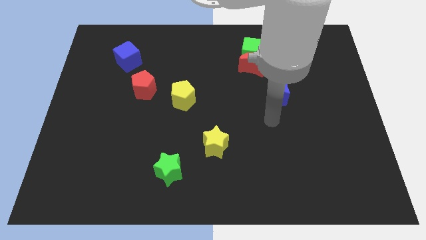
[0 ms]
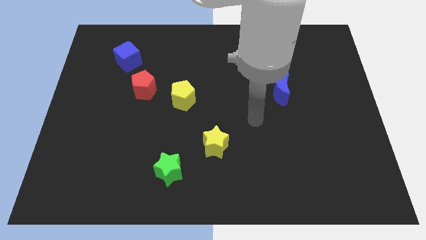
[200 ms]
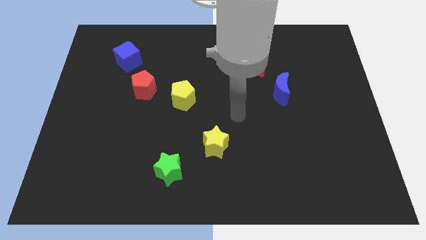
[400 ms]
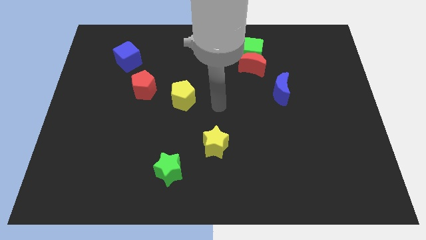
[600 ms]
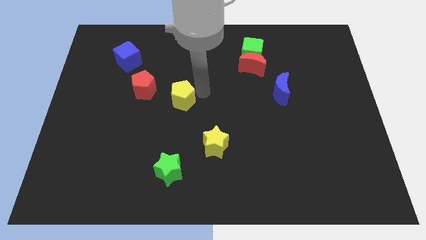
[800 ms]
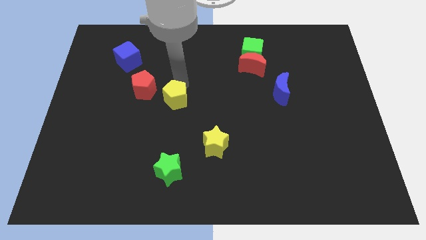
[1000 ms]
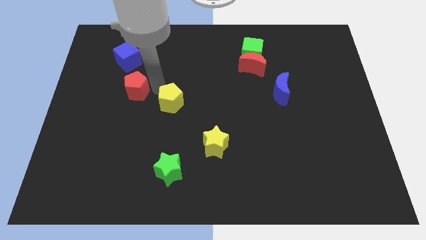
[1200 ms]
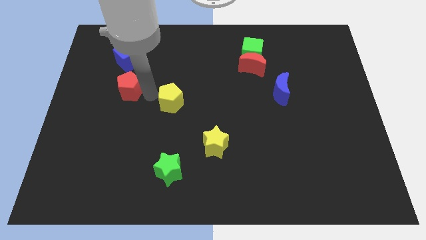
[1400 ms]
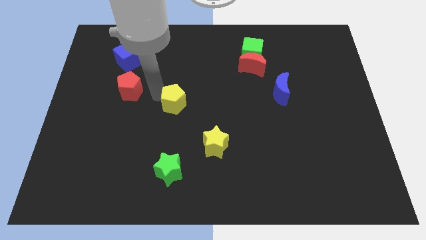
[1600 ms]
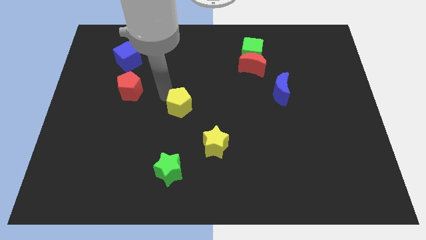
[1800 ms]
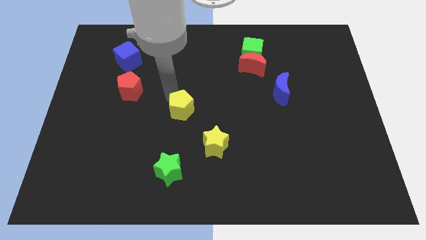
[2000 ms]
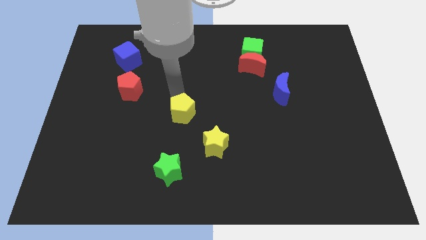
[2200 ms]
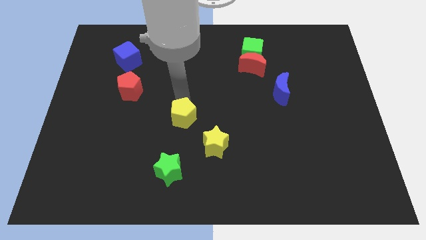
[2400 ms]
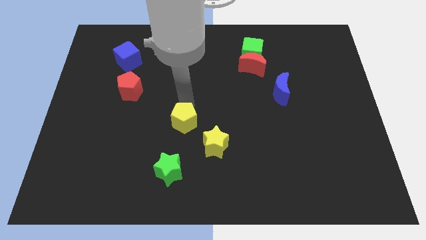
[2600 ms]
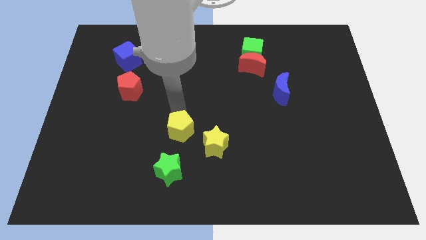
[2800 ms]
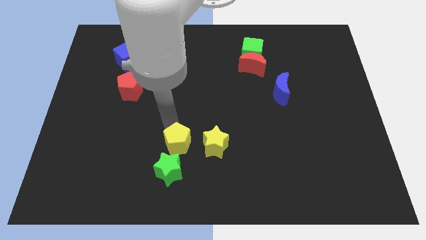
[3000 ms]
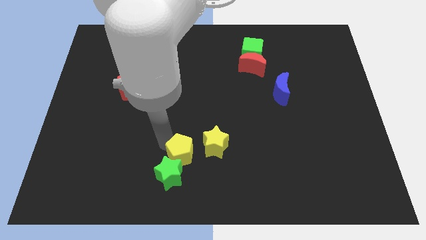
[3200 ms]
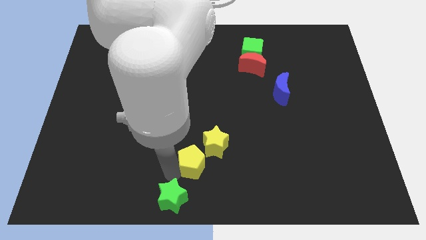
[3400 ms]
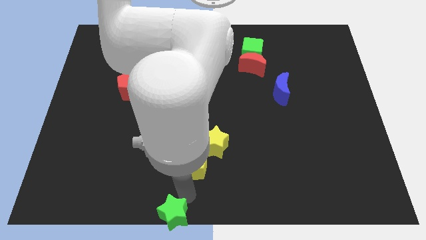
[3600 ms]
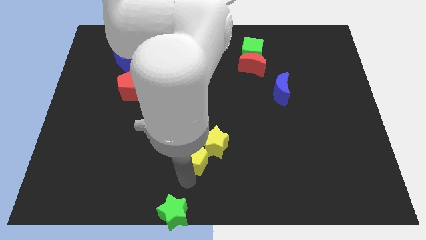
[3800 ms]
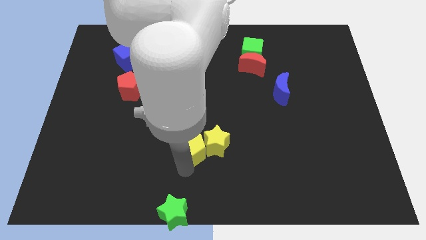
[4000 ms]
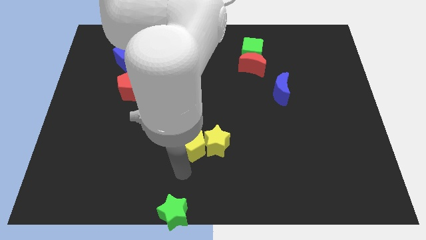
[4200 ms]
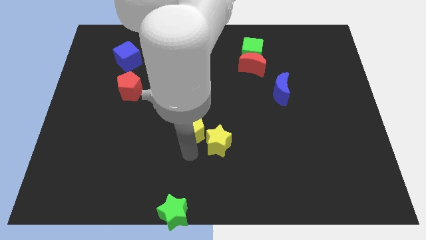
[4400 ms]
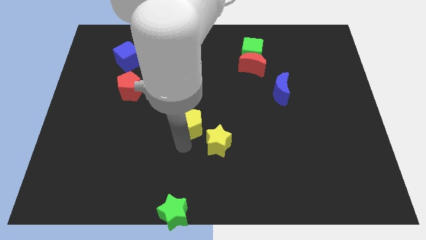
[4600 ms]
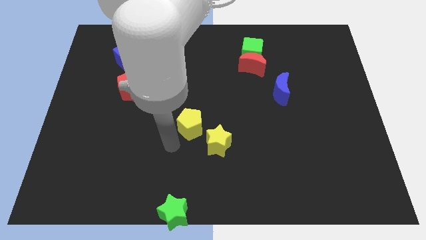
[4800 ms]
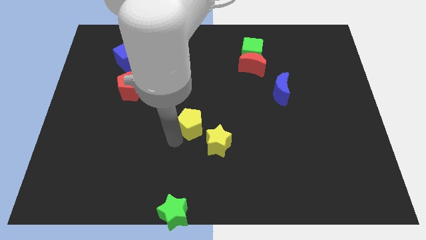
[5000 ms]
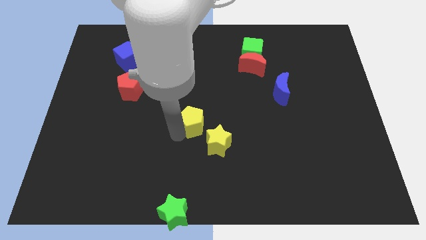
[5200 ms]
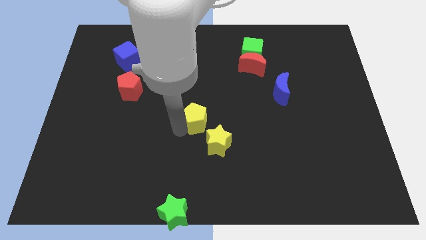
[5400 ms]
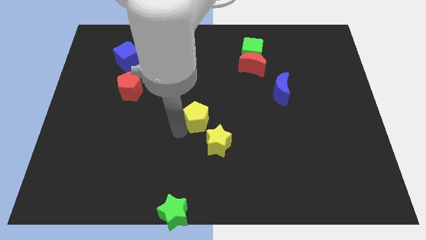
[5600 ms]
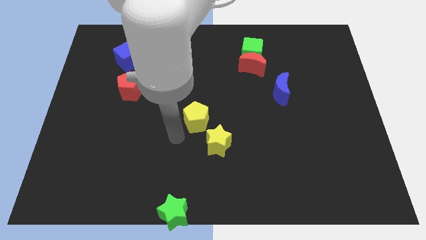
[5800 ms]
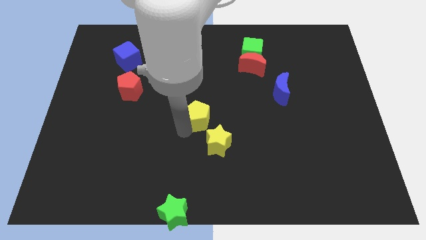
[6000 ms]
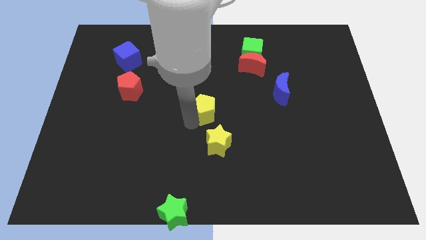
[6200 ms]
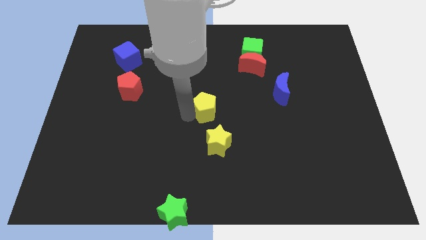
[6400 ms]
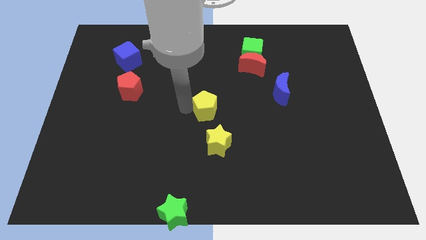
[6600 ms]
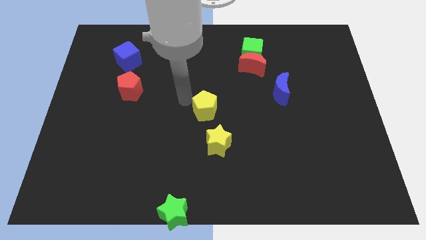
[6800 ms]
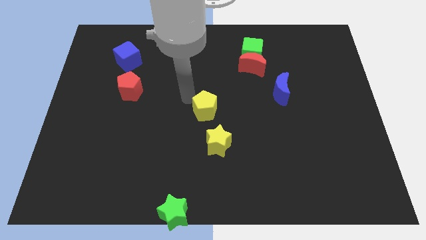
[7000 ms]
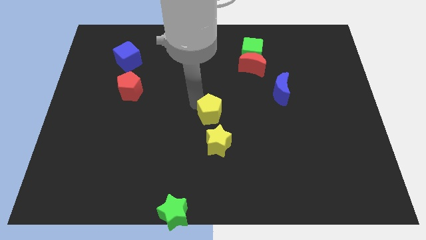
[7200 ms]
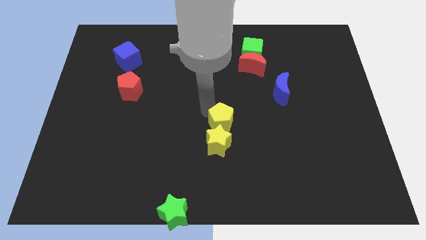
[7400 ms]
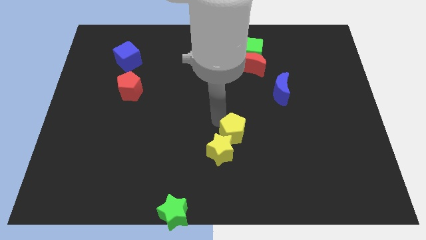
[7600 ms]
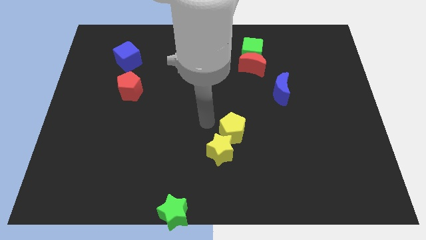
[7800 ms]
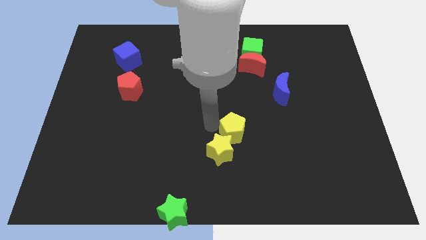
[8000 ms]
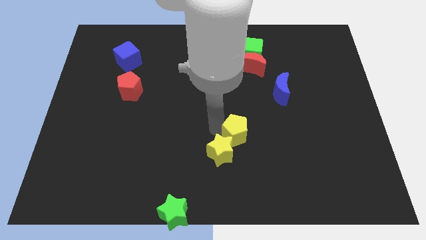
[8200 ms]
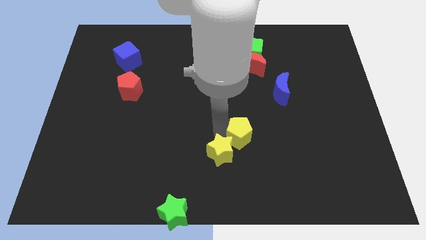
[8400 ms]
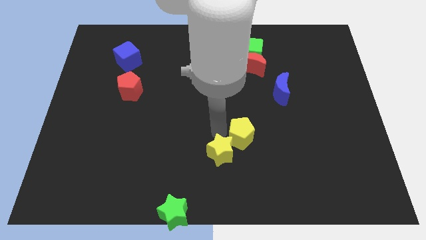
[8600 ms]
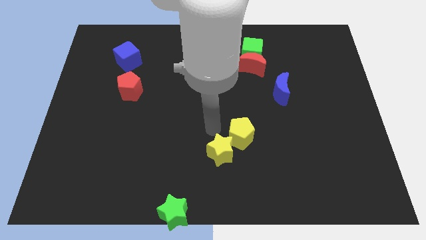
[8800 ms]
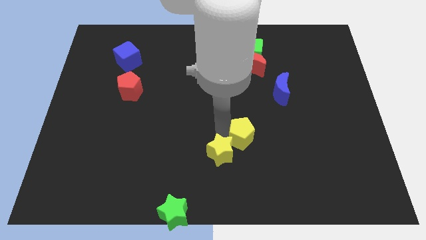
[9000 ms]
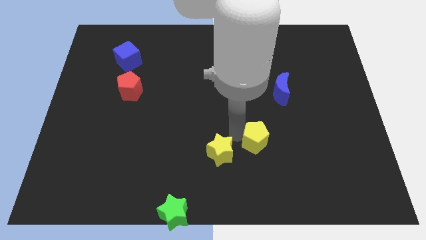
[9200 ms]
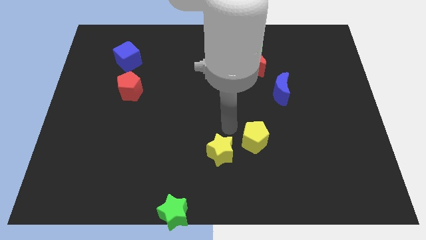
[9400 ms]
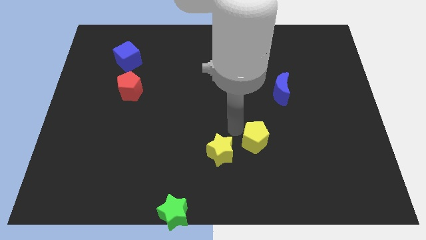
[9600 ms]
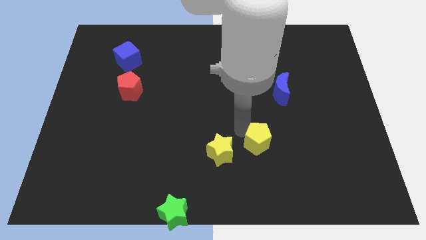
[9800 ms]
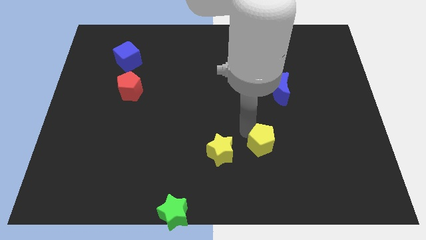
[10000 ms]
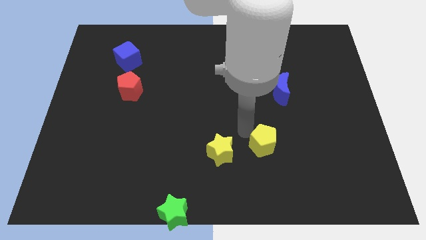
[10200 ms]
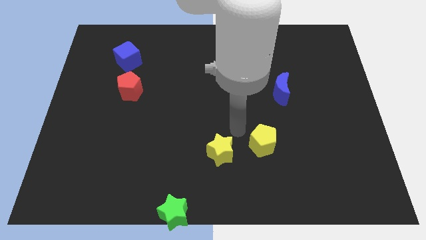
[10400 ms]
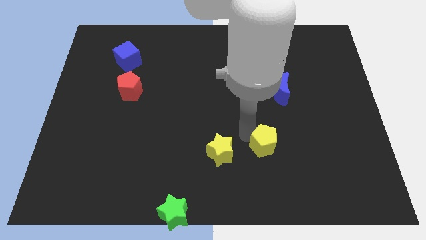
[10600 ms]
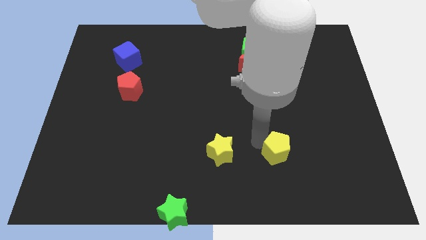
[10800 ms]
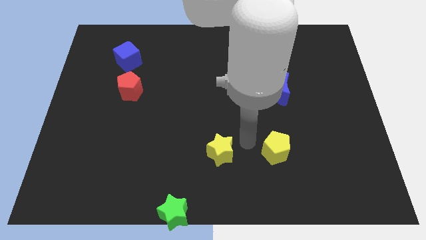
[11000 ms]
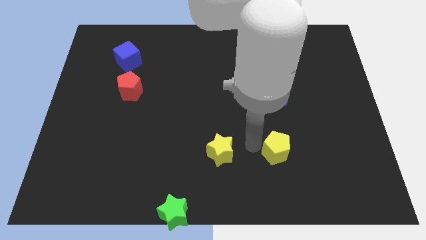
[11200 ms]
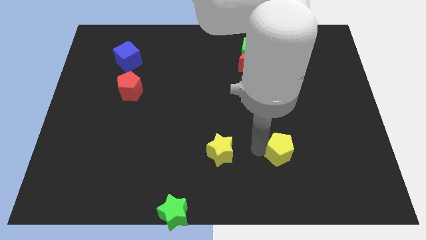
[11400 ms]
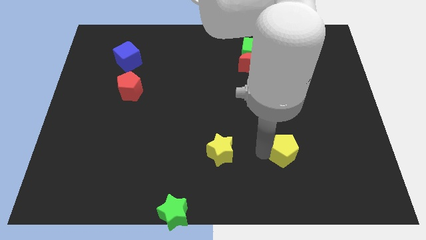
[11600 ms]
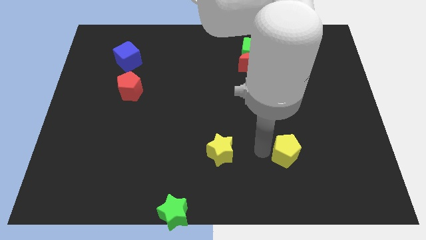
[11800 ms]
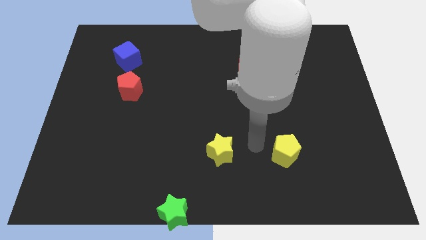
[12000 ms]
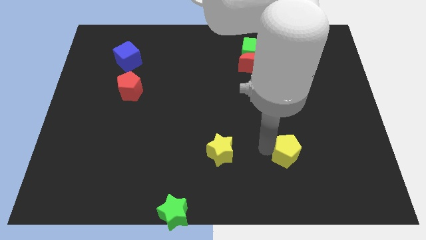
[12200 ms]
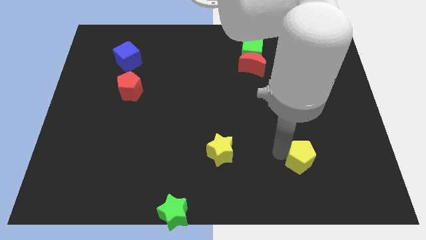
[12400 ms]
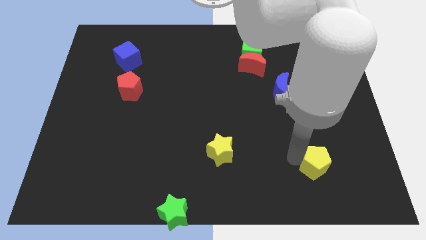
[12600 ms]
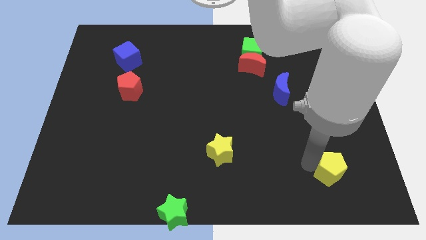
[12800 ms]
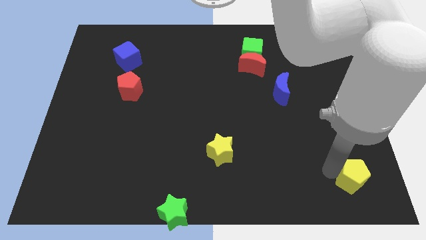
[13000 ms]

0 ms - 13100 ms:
push the yellow pentagon to the bottom right of the board
